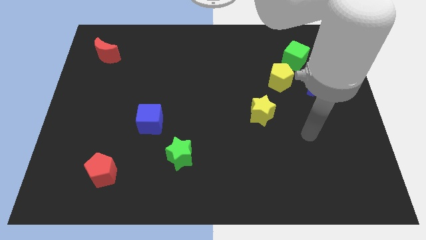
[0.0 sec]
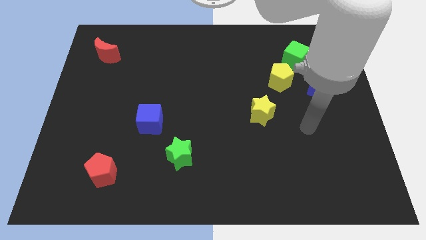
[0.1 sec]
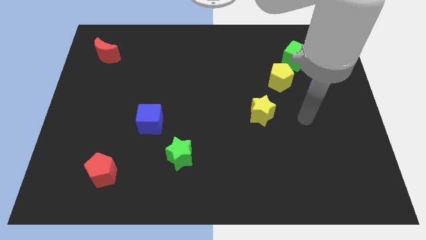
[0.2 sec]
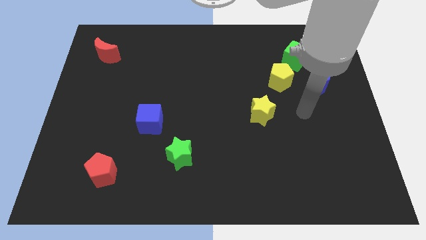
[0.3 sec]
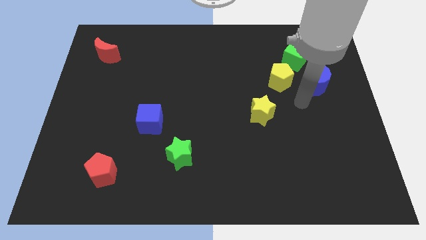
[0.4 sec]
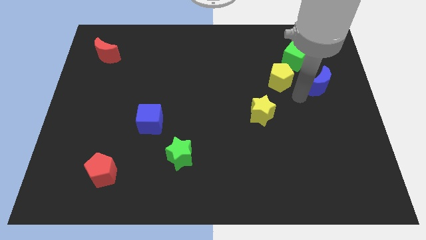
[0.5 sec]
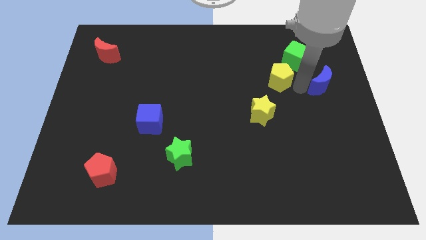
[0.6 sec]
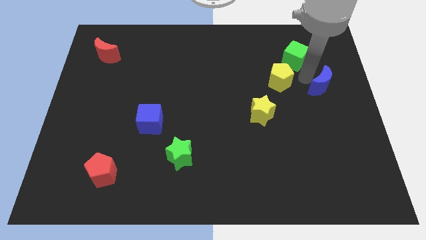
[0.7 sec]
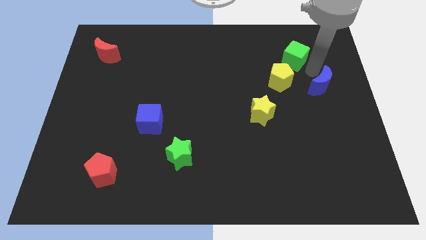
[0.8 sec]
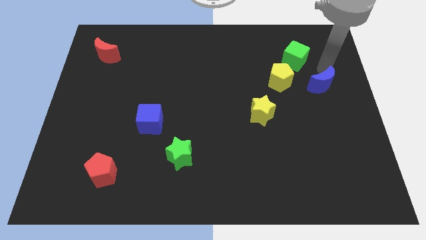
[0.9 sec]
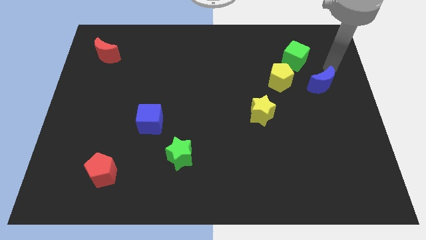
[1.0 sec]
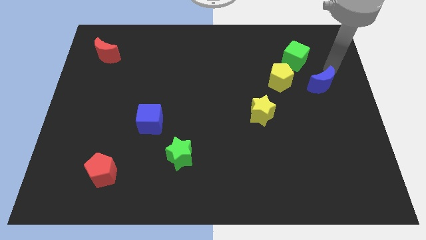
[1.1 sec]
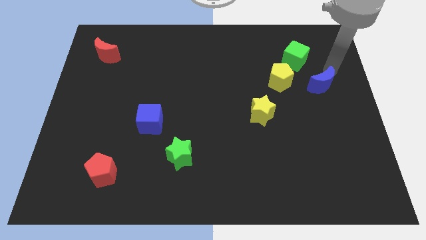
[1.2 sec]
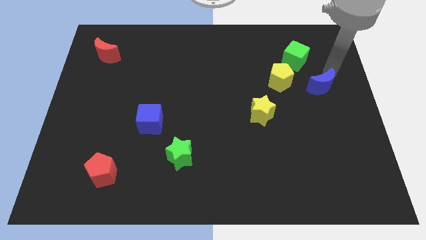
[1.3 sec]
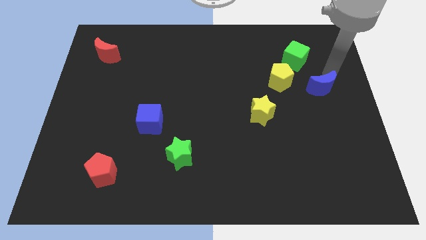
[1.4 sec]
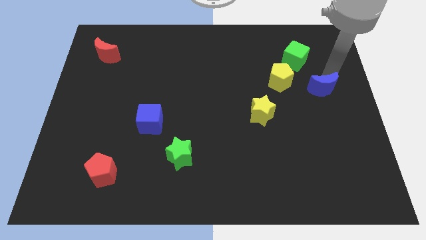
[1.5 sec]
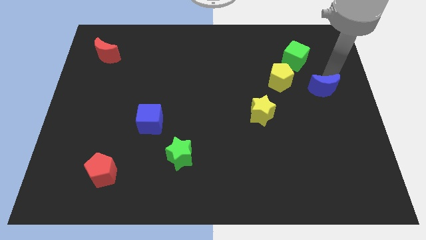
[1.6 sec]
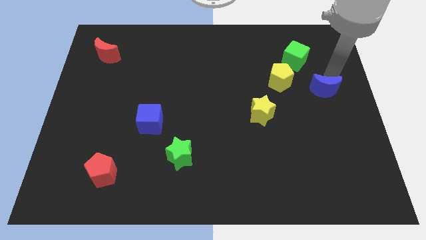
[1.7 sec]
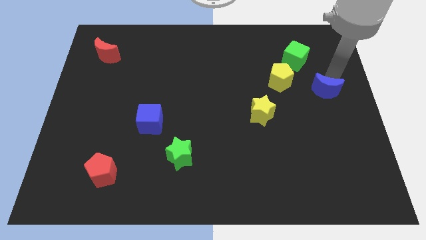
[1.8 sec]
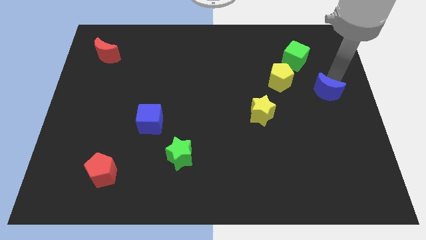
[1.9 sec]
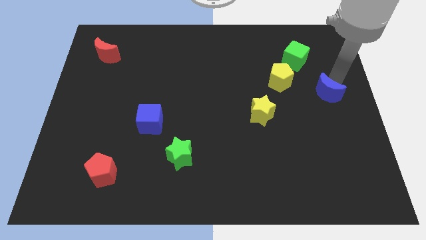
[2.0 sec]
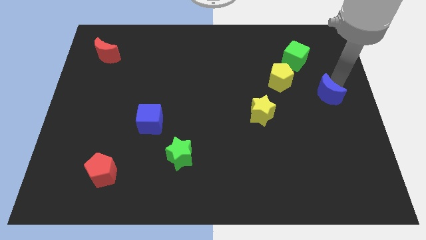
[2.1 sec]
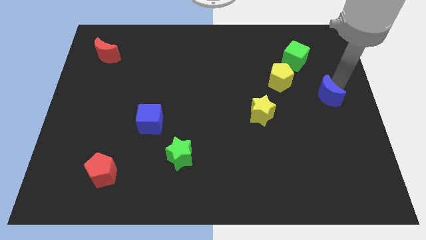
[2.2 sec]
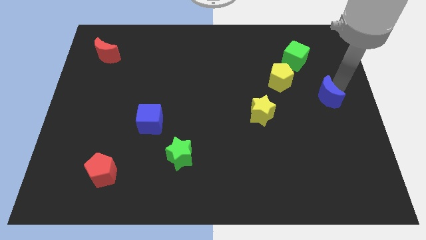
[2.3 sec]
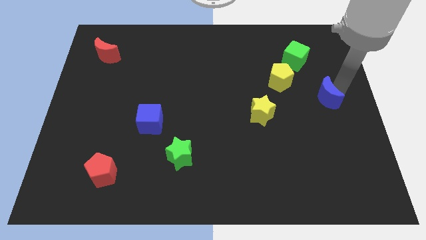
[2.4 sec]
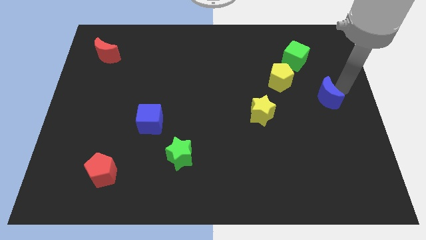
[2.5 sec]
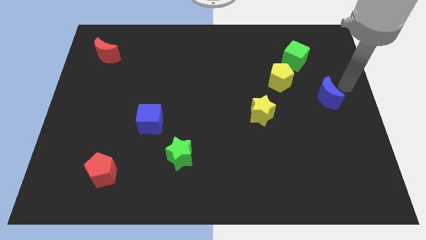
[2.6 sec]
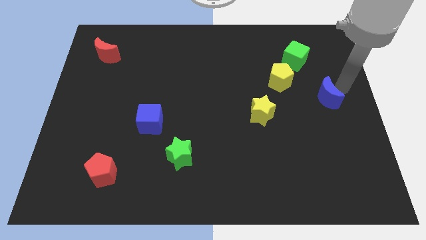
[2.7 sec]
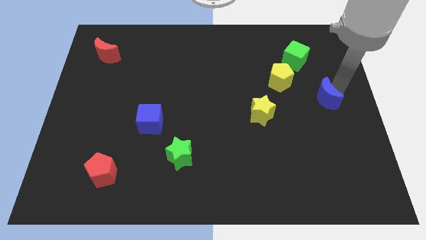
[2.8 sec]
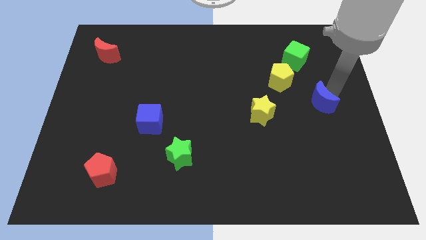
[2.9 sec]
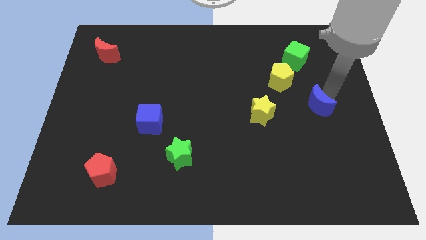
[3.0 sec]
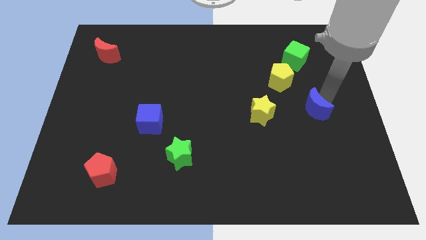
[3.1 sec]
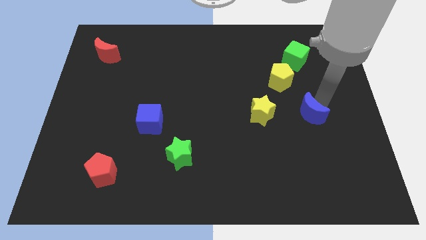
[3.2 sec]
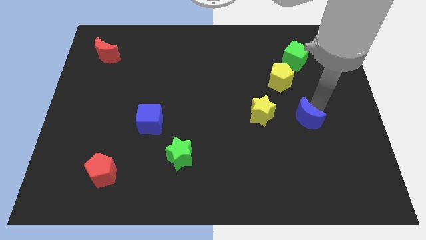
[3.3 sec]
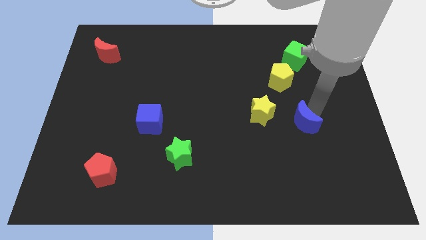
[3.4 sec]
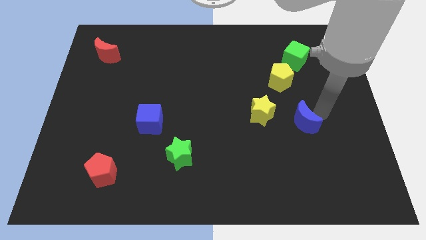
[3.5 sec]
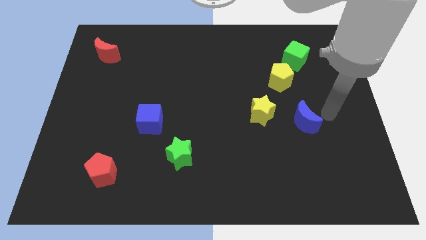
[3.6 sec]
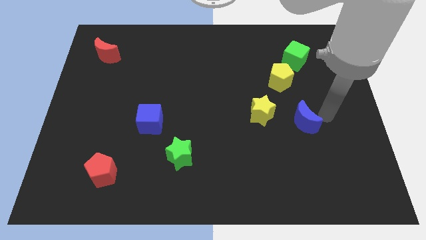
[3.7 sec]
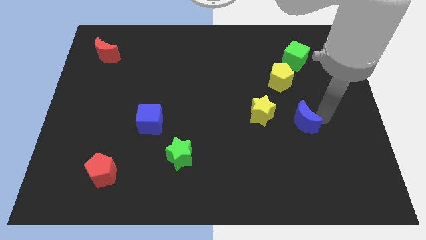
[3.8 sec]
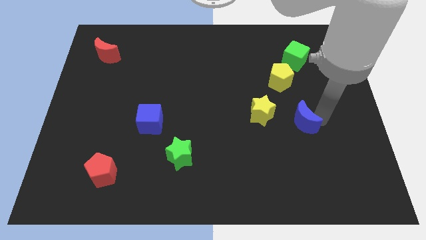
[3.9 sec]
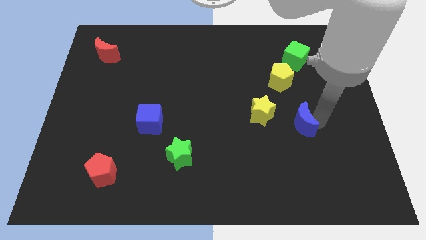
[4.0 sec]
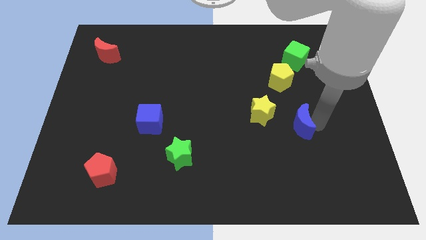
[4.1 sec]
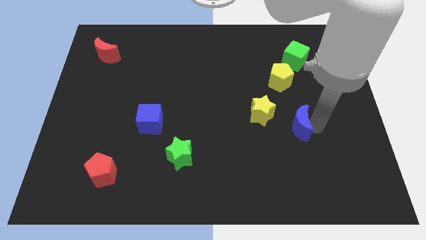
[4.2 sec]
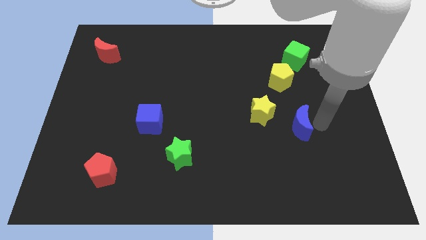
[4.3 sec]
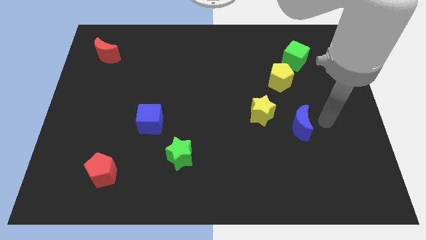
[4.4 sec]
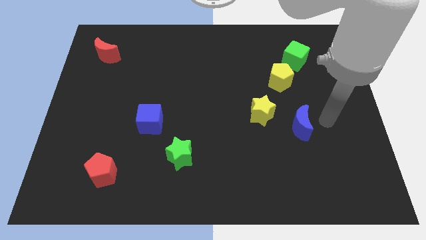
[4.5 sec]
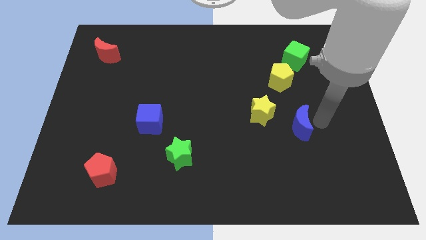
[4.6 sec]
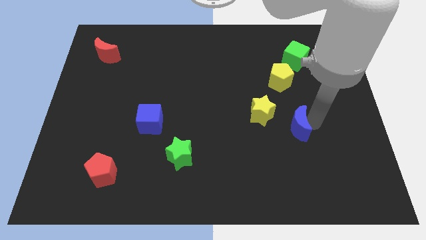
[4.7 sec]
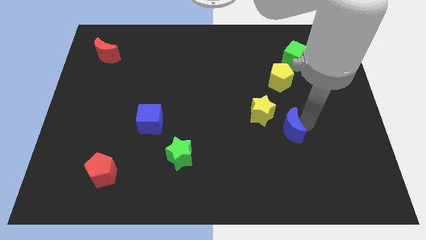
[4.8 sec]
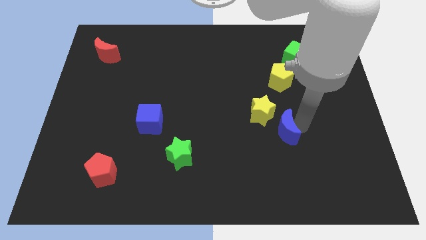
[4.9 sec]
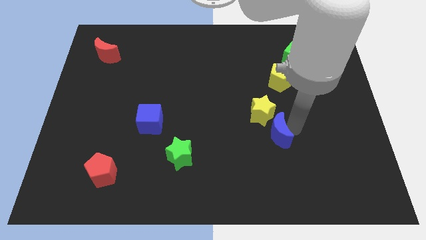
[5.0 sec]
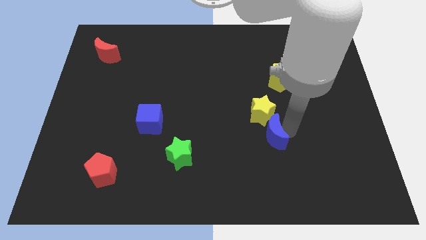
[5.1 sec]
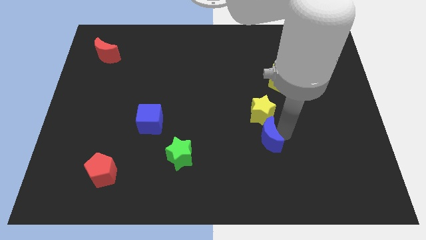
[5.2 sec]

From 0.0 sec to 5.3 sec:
push the blue moon down and to the left

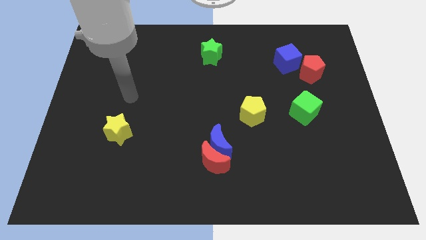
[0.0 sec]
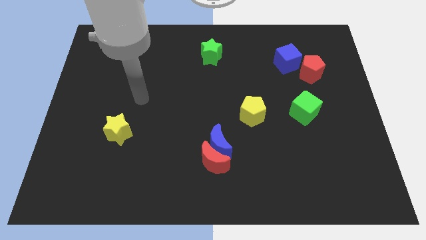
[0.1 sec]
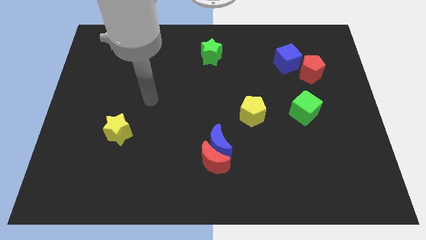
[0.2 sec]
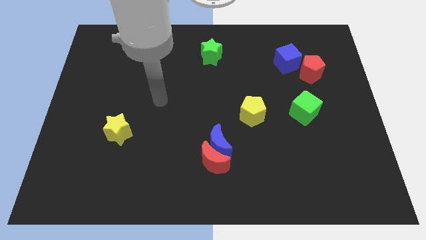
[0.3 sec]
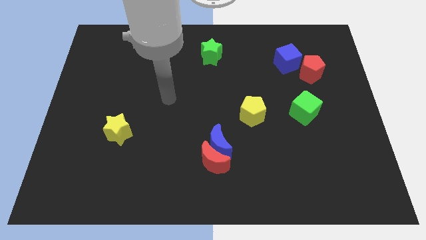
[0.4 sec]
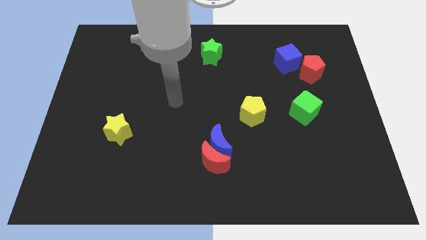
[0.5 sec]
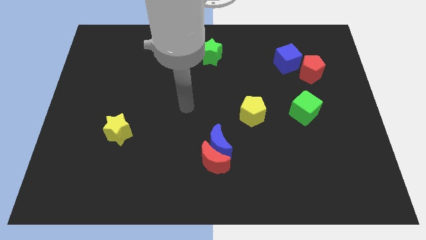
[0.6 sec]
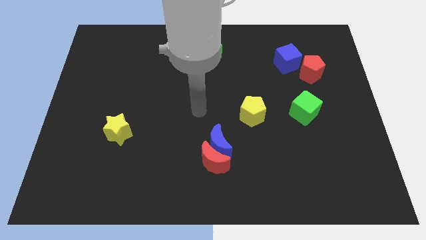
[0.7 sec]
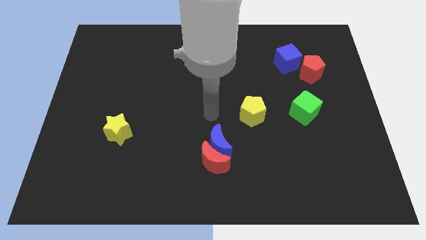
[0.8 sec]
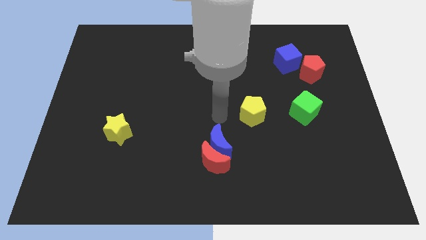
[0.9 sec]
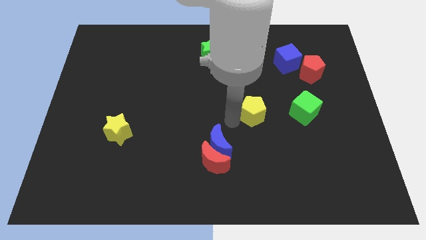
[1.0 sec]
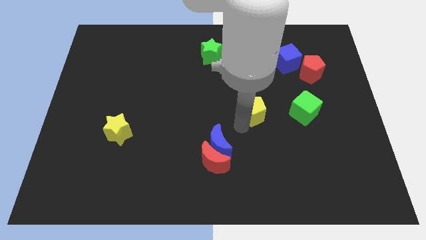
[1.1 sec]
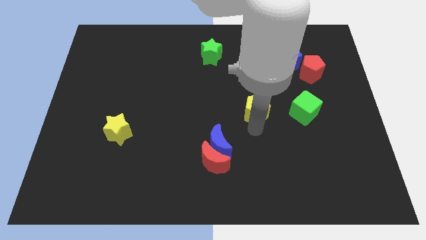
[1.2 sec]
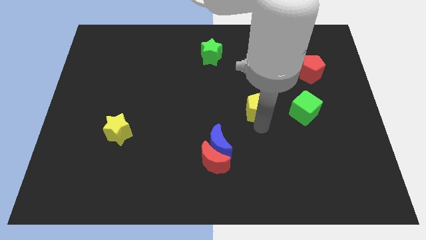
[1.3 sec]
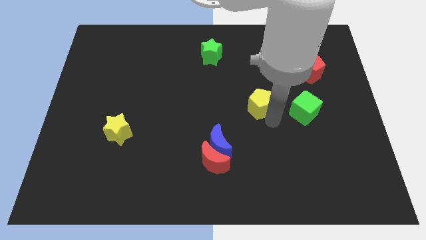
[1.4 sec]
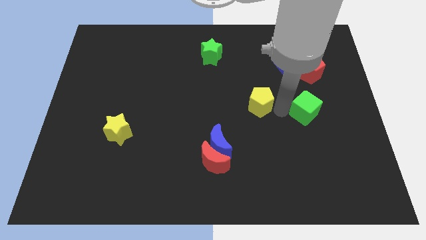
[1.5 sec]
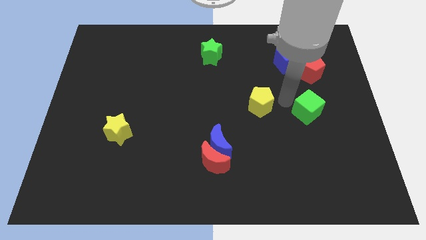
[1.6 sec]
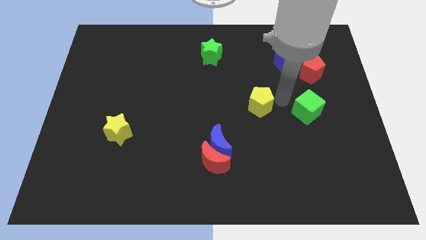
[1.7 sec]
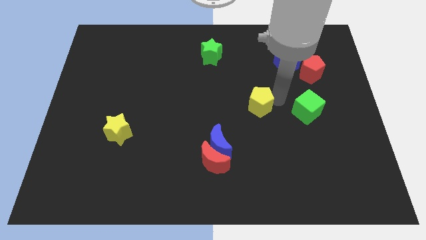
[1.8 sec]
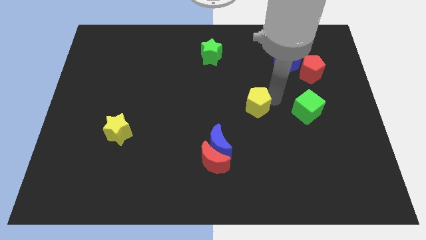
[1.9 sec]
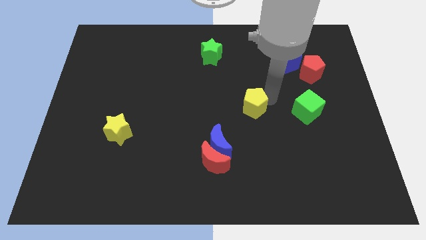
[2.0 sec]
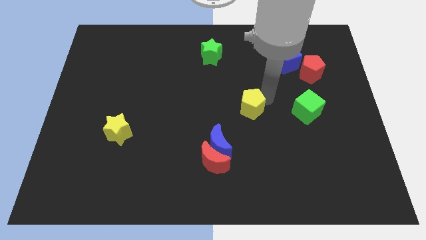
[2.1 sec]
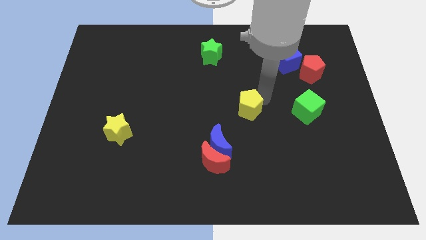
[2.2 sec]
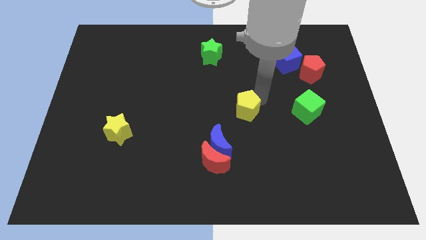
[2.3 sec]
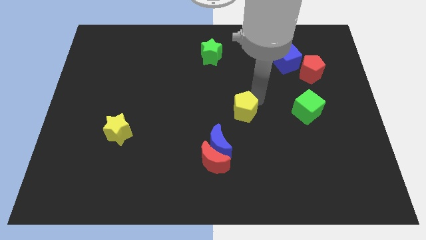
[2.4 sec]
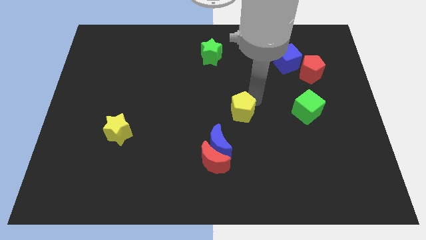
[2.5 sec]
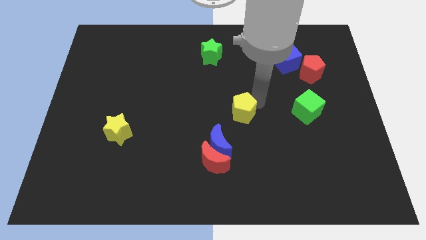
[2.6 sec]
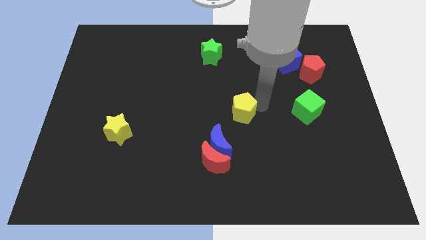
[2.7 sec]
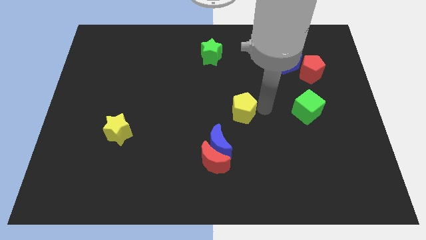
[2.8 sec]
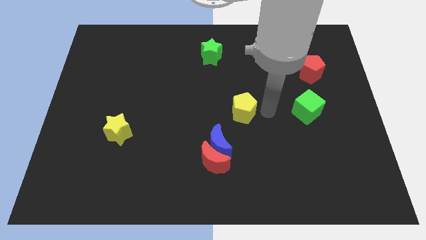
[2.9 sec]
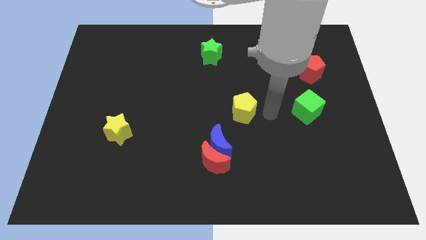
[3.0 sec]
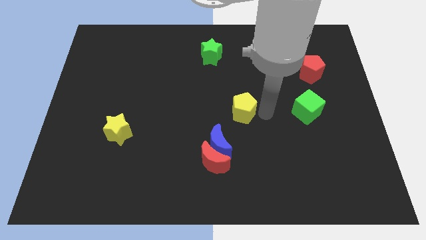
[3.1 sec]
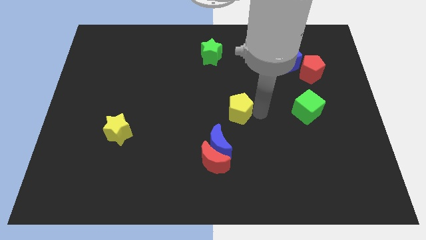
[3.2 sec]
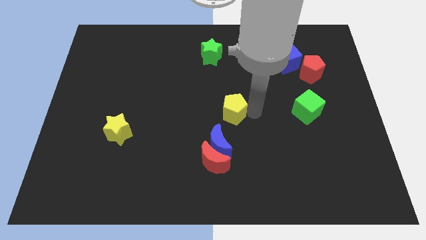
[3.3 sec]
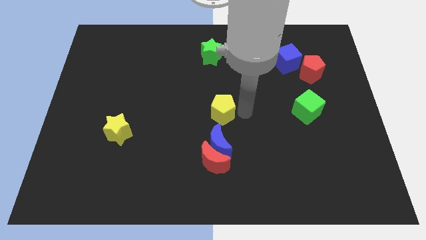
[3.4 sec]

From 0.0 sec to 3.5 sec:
slightly slide the yellow pentagon left
